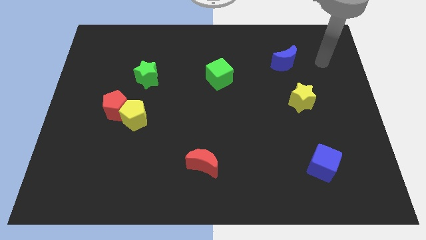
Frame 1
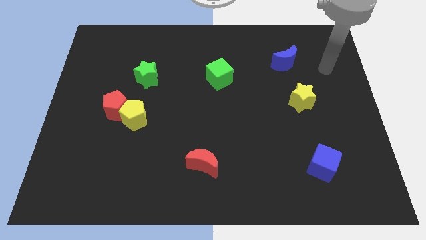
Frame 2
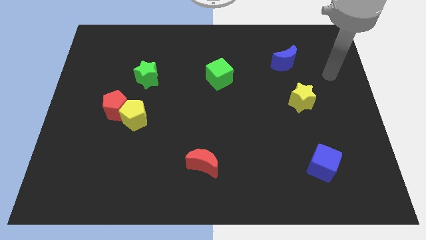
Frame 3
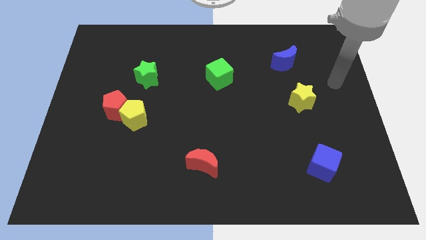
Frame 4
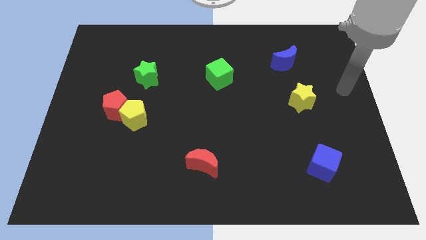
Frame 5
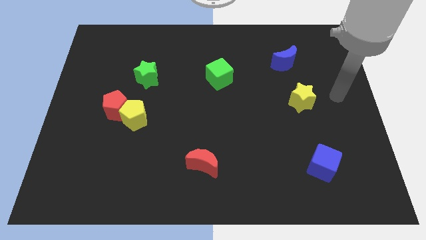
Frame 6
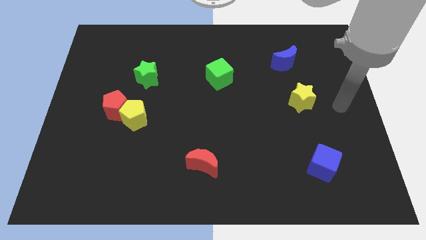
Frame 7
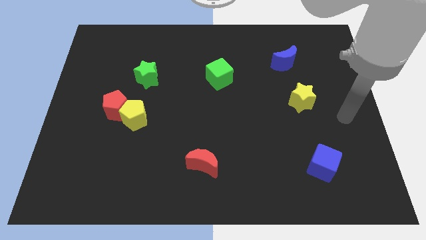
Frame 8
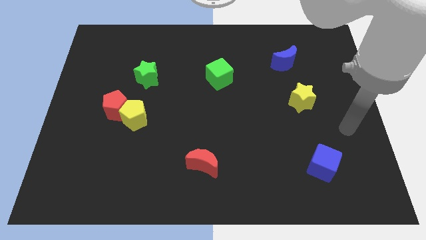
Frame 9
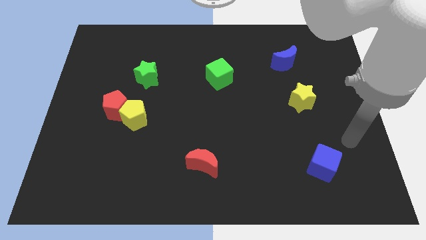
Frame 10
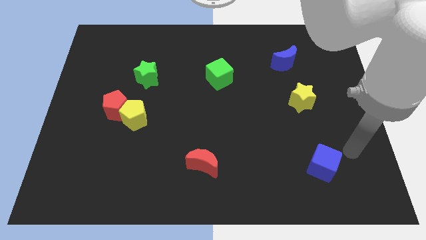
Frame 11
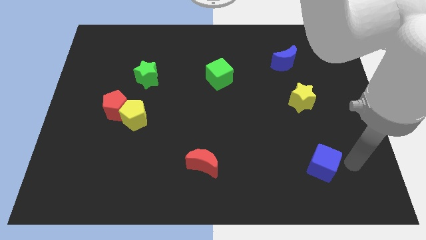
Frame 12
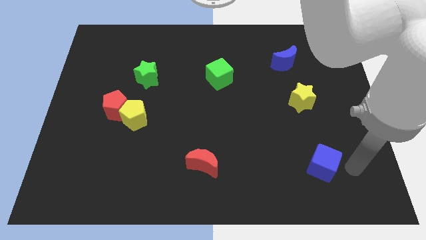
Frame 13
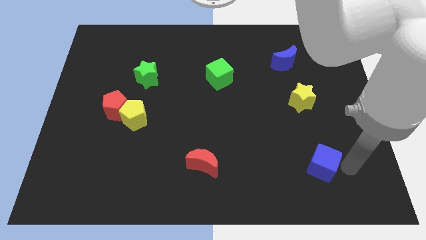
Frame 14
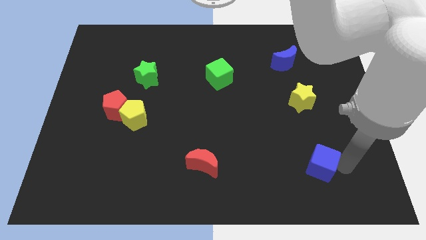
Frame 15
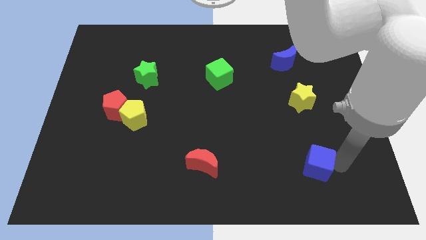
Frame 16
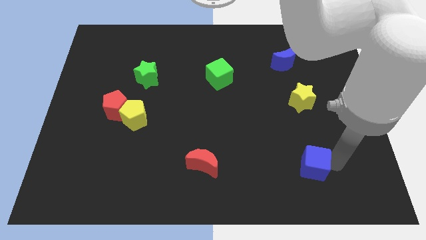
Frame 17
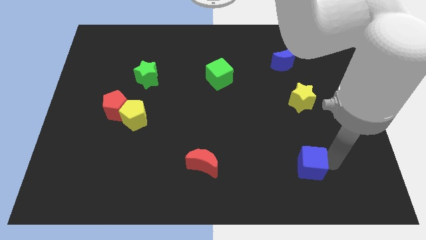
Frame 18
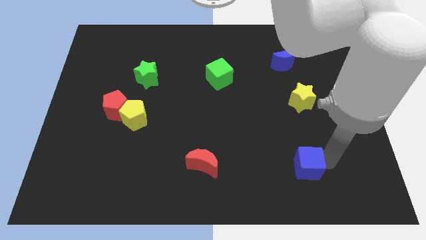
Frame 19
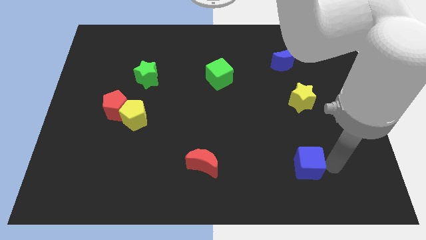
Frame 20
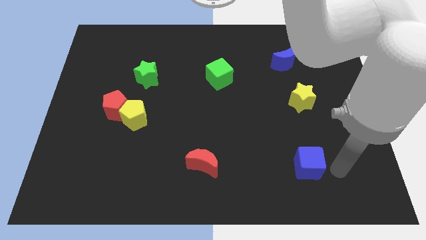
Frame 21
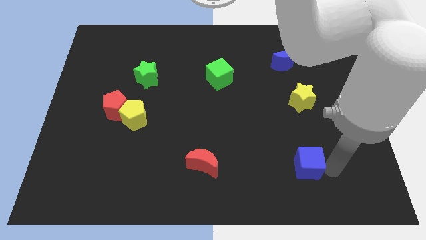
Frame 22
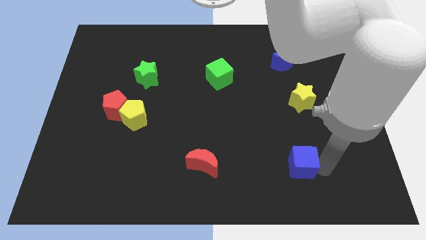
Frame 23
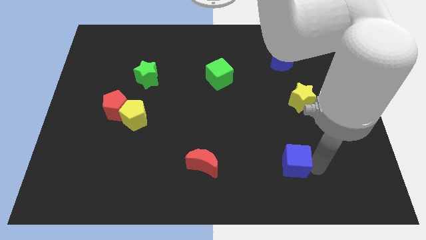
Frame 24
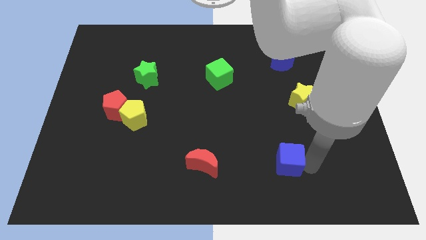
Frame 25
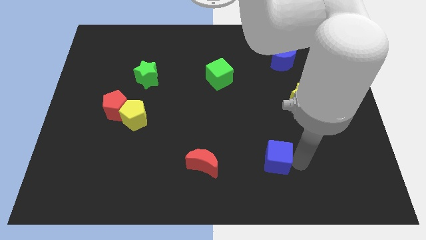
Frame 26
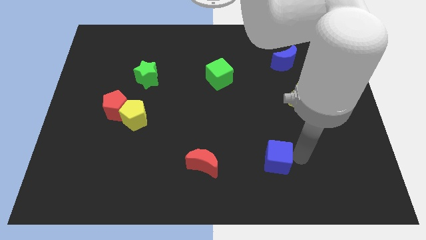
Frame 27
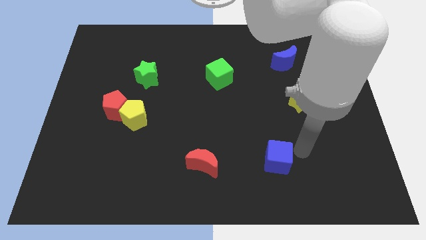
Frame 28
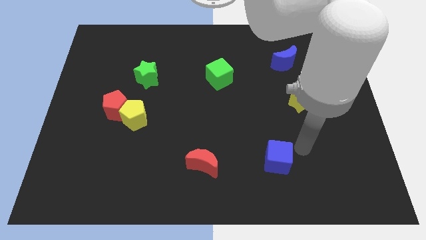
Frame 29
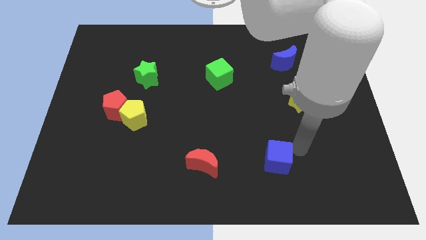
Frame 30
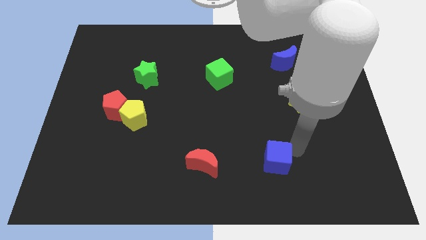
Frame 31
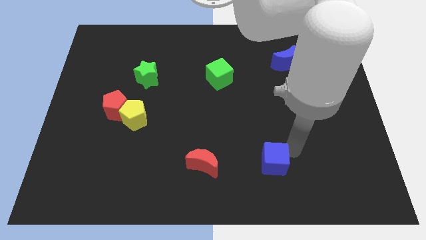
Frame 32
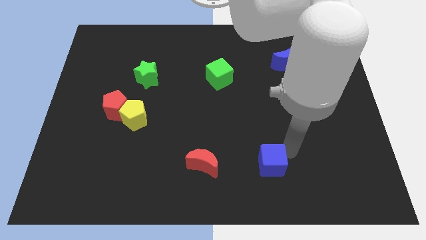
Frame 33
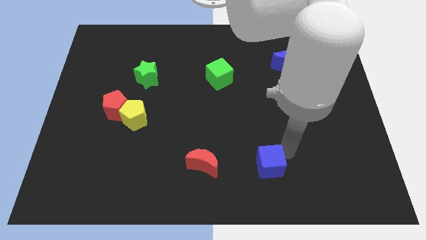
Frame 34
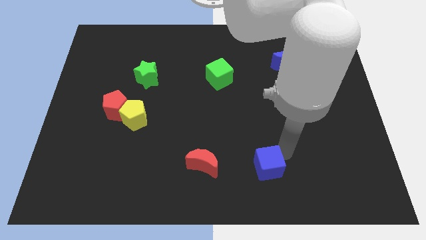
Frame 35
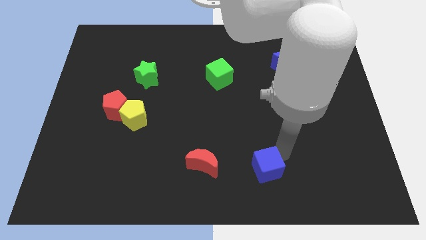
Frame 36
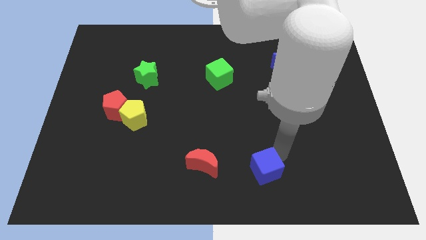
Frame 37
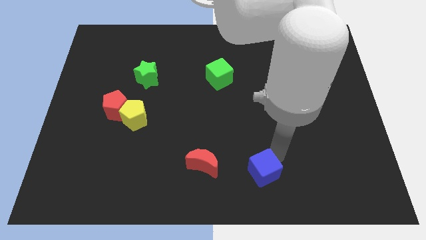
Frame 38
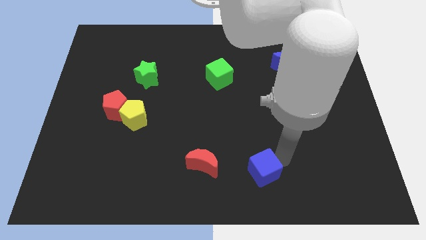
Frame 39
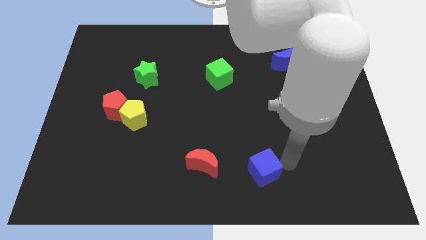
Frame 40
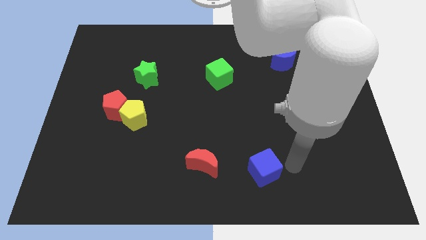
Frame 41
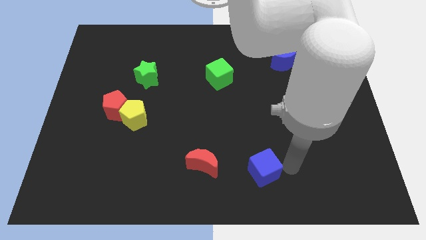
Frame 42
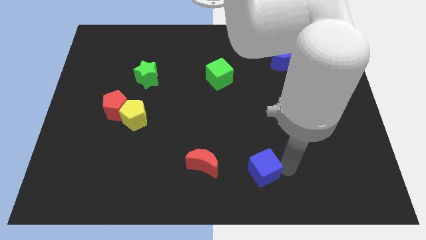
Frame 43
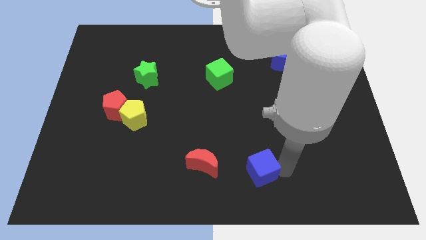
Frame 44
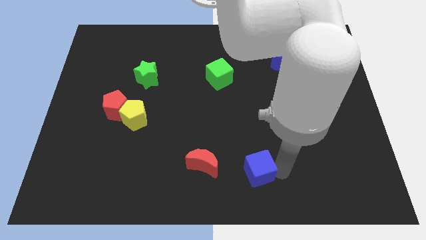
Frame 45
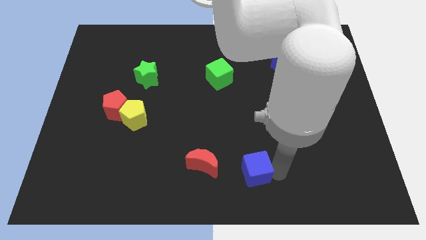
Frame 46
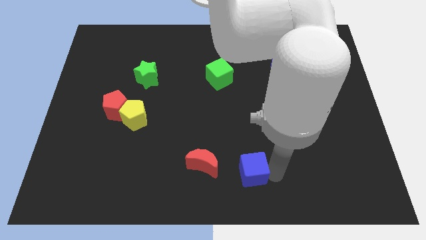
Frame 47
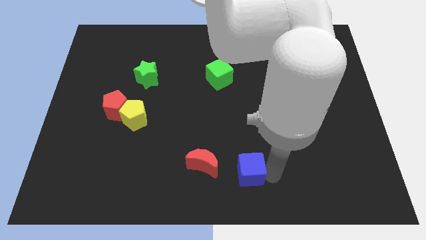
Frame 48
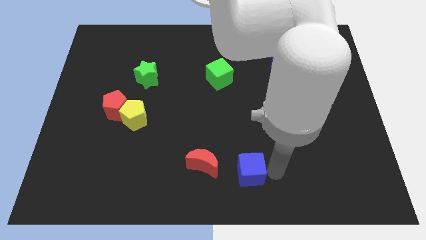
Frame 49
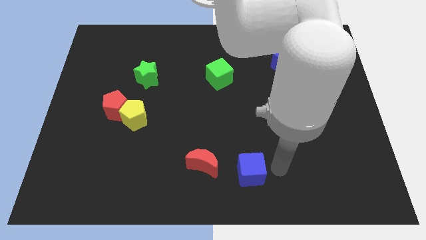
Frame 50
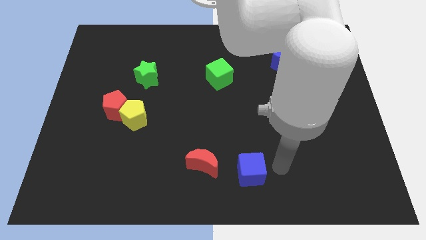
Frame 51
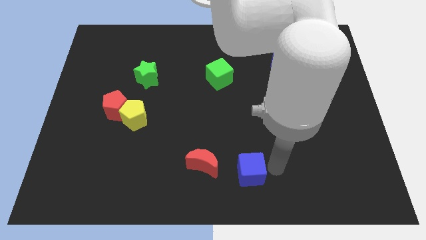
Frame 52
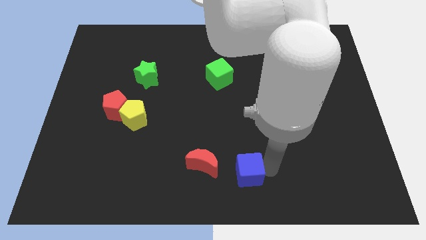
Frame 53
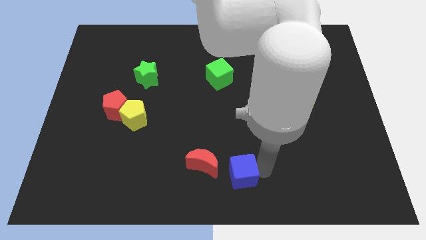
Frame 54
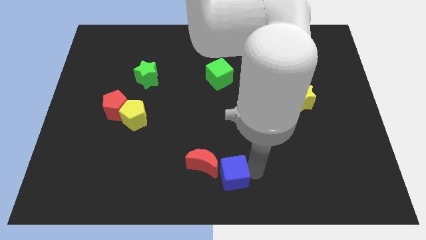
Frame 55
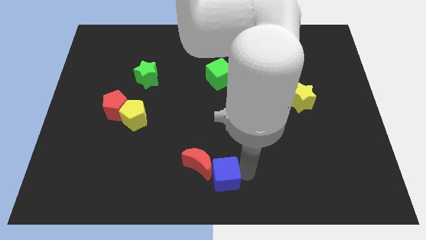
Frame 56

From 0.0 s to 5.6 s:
push the blue cube to the left
